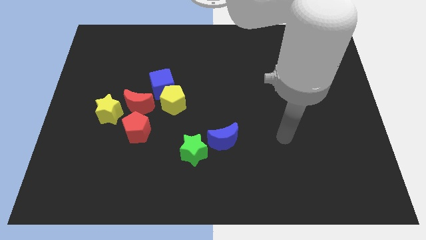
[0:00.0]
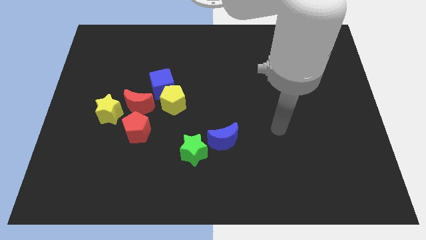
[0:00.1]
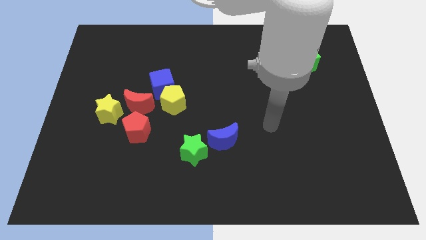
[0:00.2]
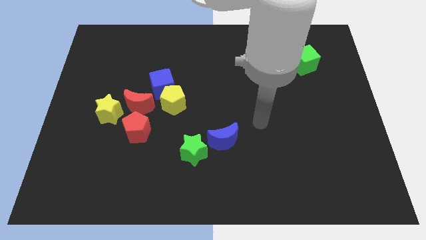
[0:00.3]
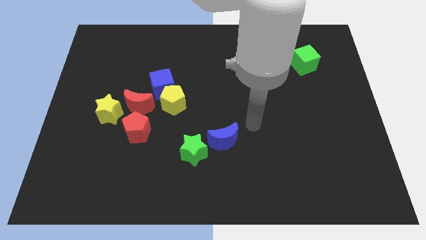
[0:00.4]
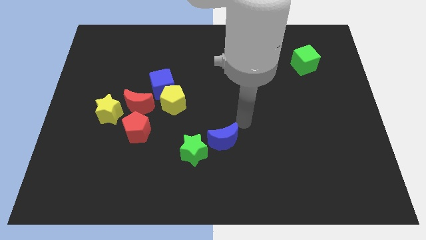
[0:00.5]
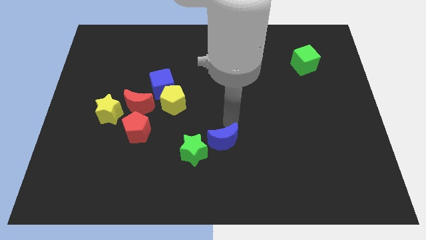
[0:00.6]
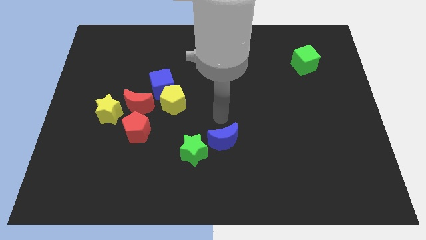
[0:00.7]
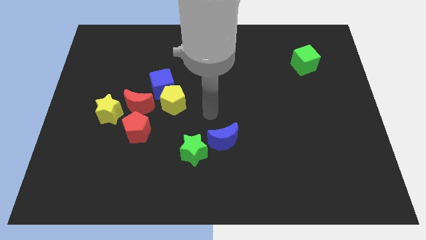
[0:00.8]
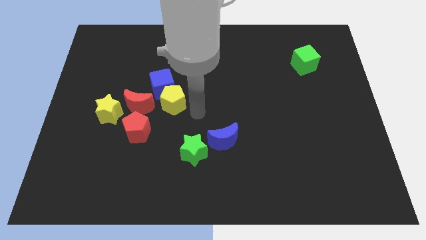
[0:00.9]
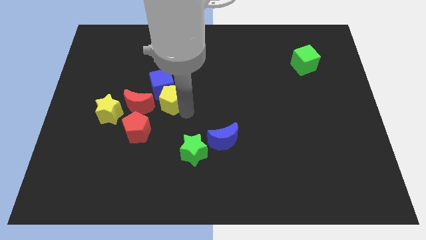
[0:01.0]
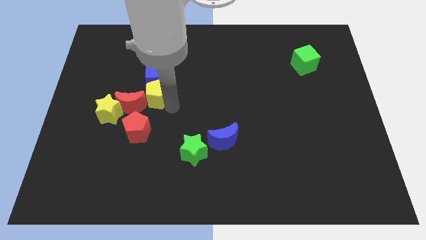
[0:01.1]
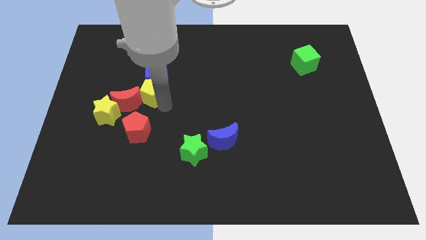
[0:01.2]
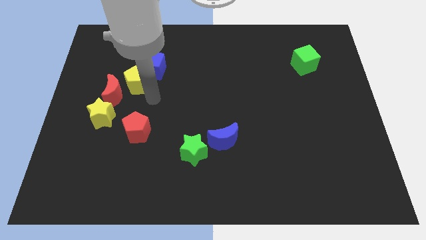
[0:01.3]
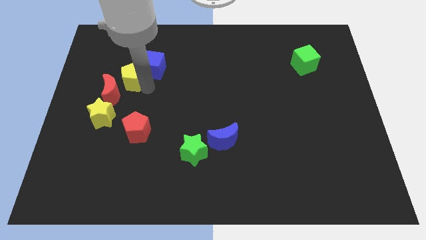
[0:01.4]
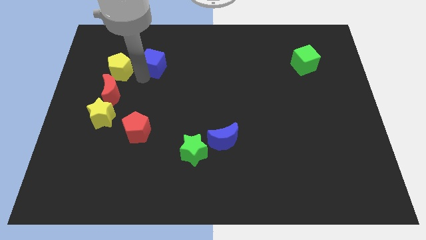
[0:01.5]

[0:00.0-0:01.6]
separate the blue cube from the yellow pentagon and red moon

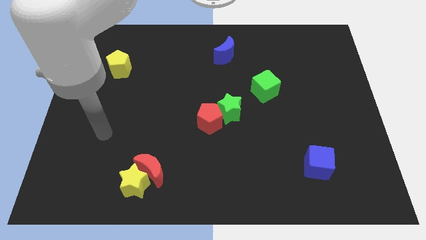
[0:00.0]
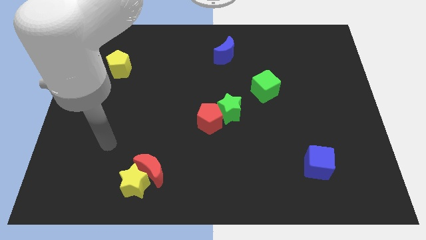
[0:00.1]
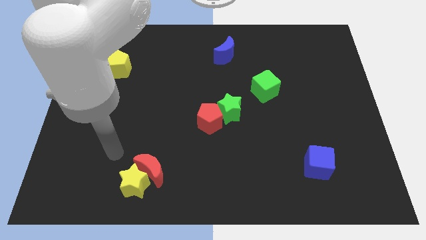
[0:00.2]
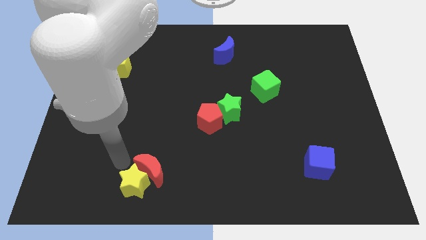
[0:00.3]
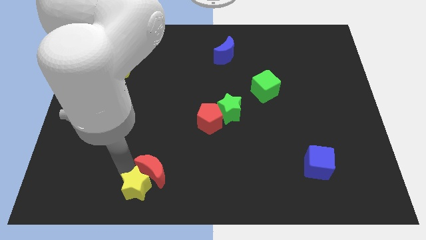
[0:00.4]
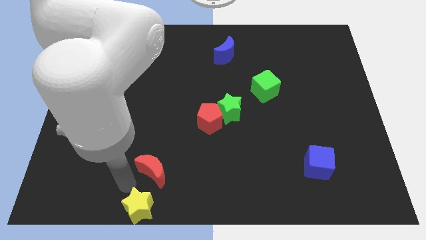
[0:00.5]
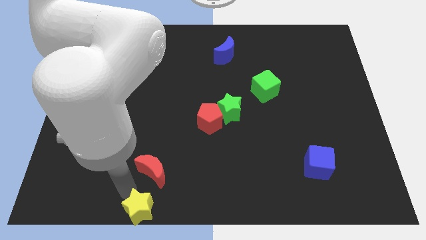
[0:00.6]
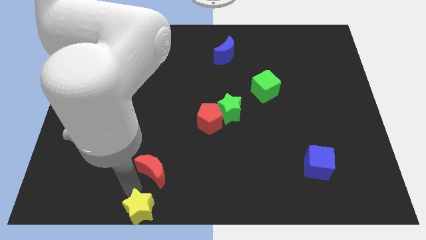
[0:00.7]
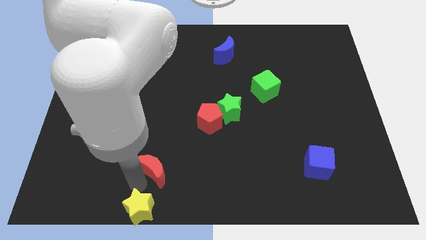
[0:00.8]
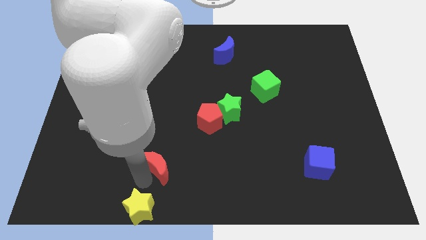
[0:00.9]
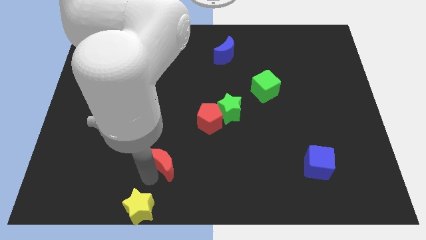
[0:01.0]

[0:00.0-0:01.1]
pull the red moon apart from the yellow star

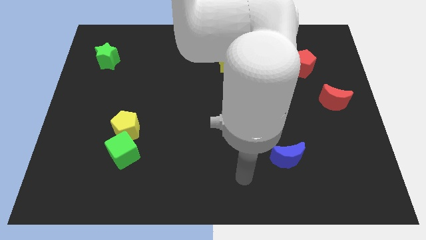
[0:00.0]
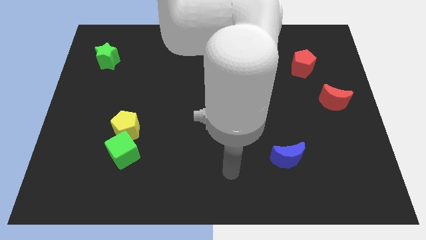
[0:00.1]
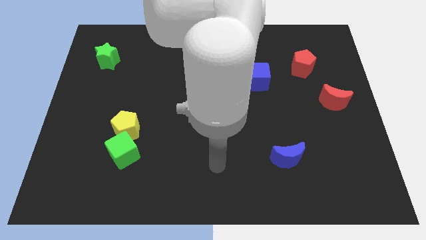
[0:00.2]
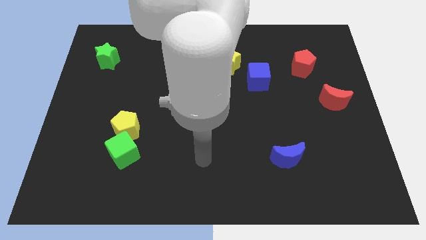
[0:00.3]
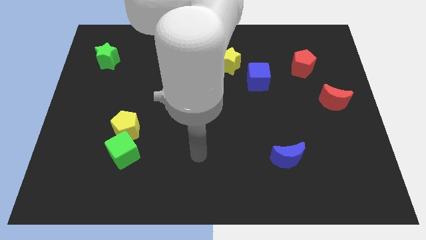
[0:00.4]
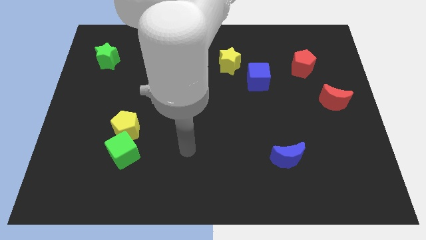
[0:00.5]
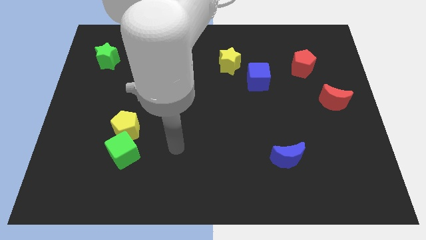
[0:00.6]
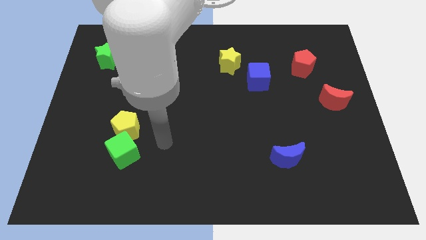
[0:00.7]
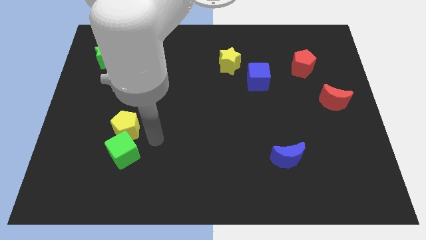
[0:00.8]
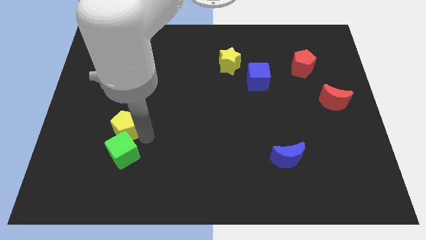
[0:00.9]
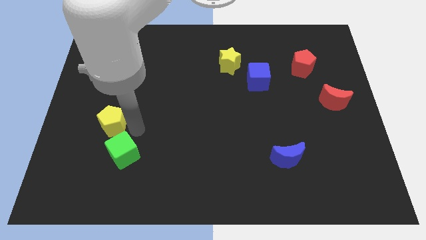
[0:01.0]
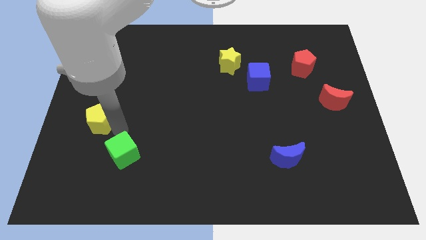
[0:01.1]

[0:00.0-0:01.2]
pull the green cube apart from the yellow pentagon

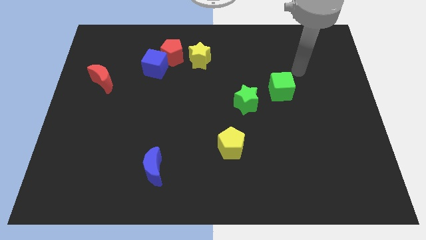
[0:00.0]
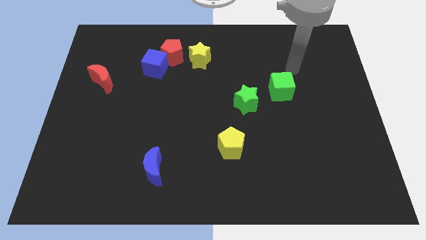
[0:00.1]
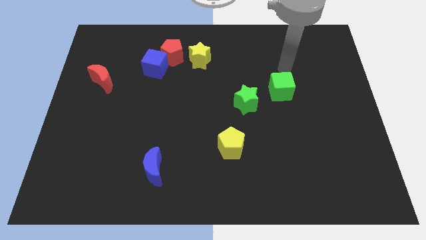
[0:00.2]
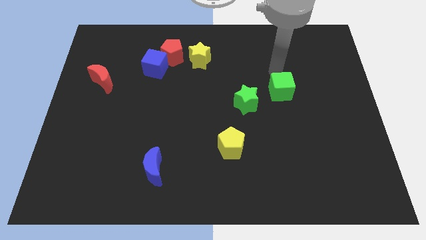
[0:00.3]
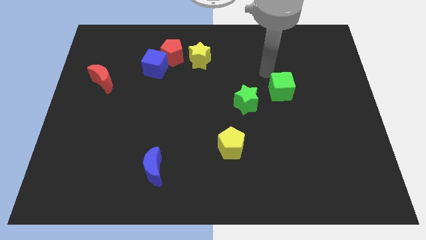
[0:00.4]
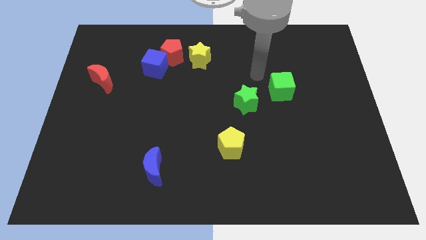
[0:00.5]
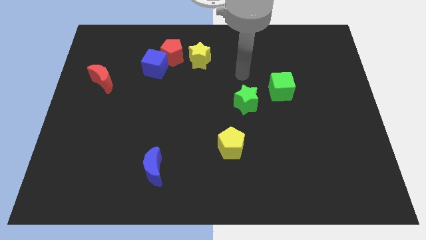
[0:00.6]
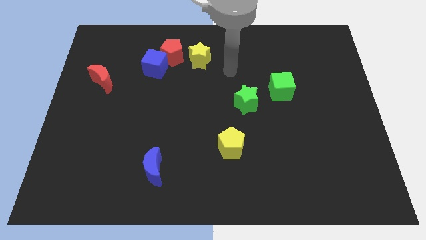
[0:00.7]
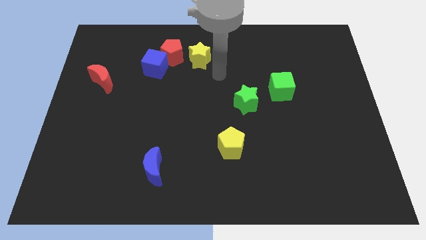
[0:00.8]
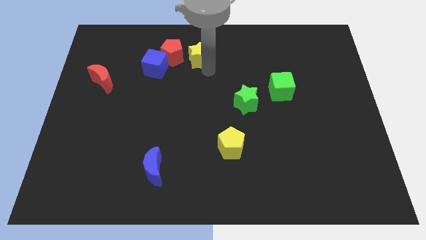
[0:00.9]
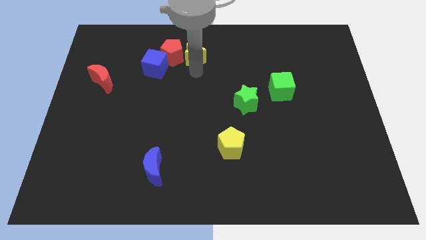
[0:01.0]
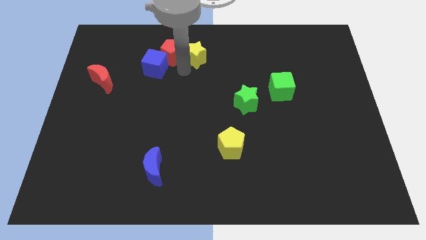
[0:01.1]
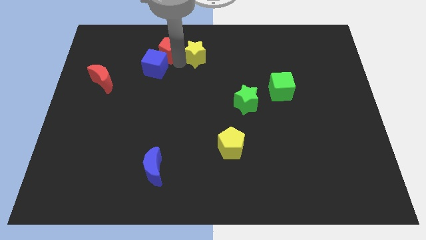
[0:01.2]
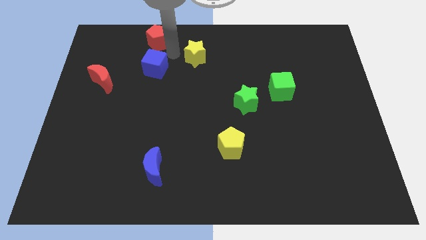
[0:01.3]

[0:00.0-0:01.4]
pull the blue cube apart from the red pentagon

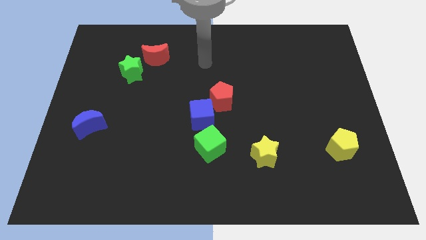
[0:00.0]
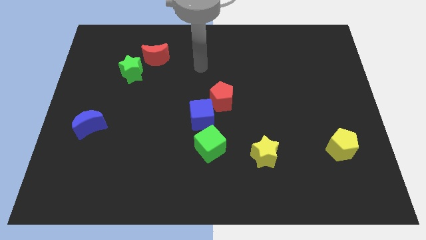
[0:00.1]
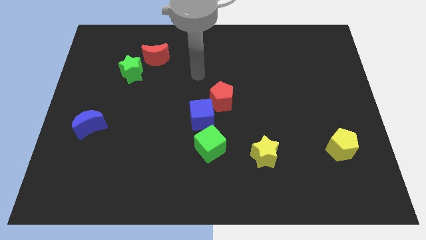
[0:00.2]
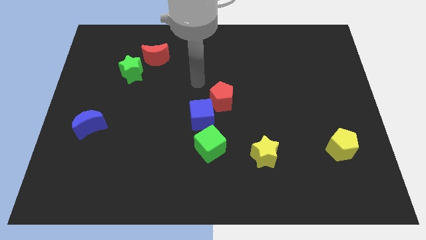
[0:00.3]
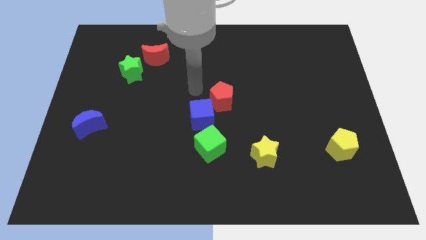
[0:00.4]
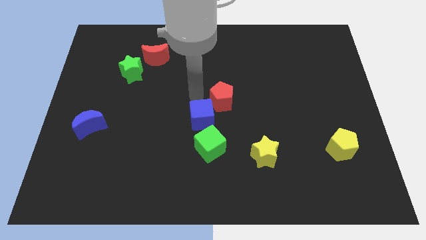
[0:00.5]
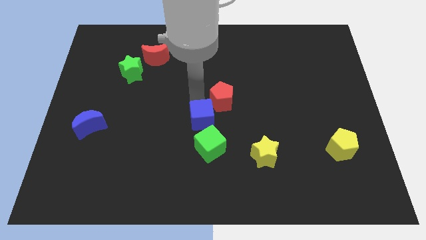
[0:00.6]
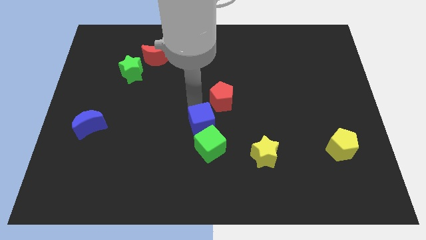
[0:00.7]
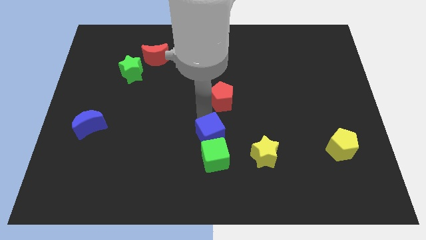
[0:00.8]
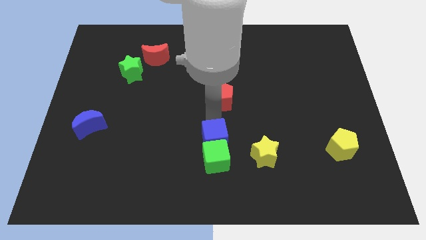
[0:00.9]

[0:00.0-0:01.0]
move the red pentagon away from the blue cube

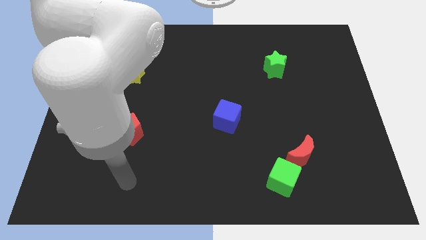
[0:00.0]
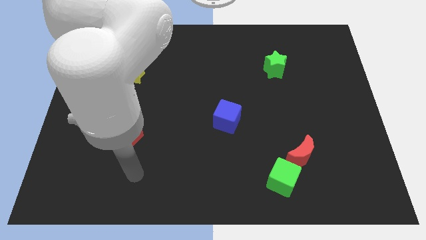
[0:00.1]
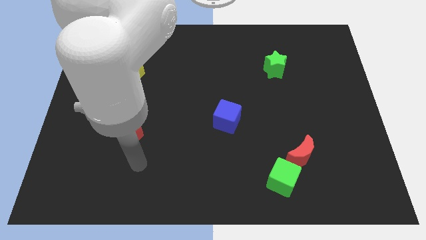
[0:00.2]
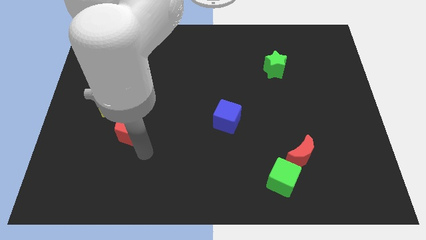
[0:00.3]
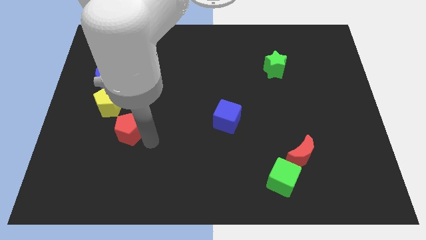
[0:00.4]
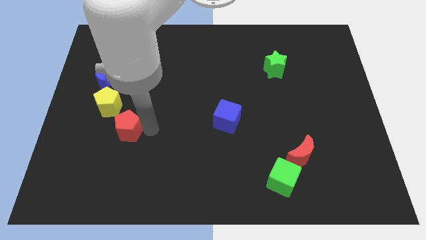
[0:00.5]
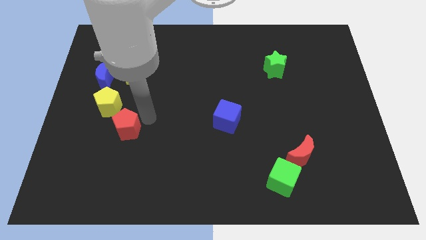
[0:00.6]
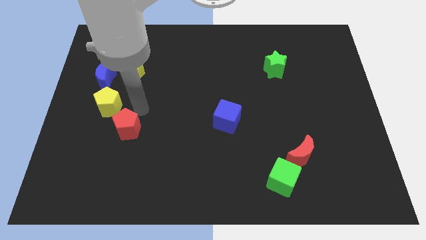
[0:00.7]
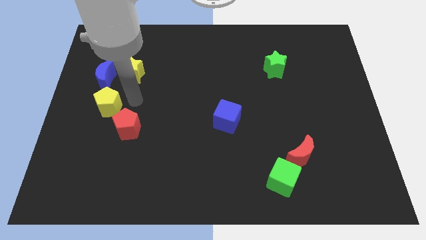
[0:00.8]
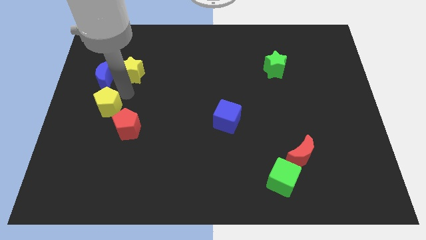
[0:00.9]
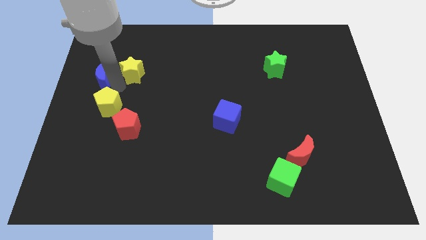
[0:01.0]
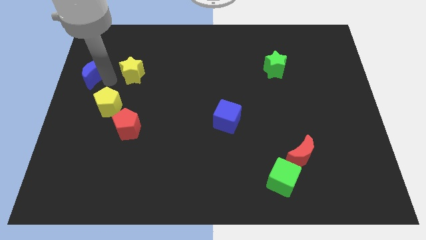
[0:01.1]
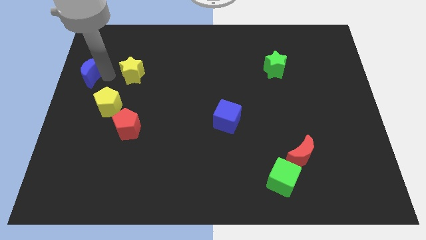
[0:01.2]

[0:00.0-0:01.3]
separate the yellow star from the blue moon

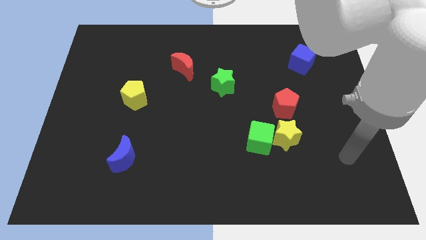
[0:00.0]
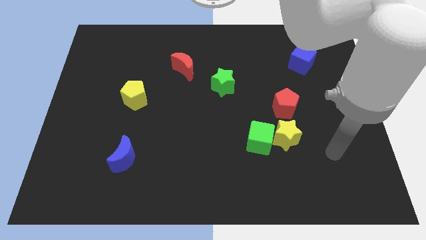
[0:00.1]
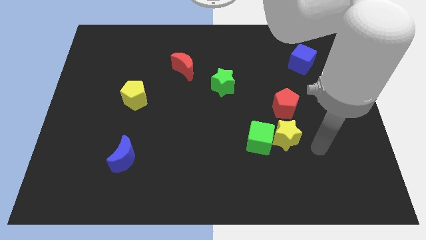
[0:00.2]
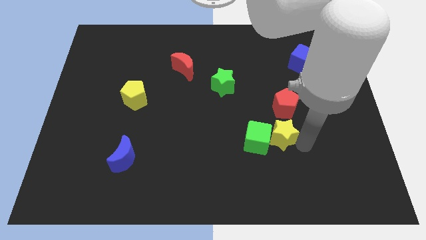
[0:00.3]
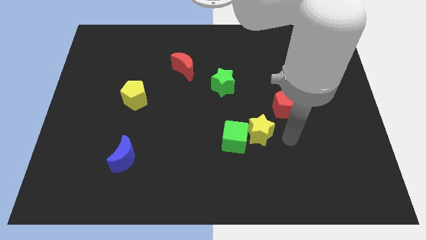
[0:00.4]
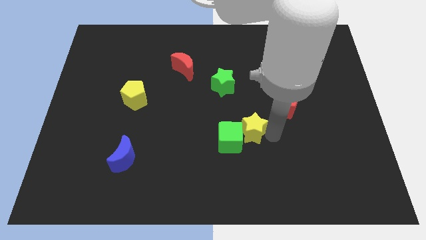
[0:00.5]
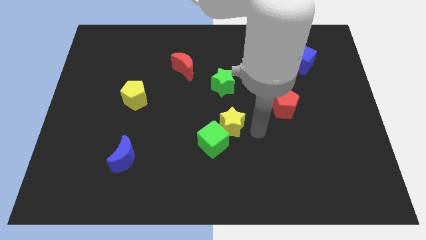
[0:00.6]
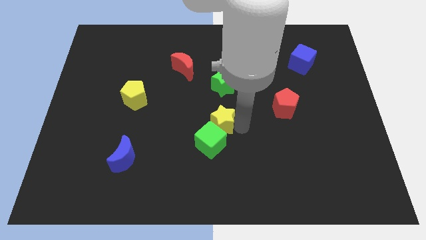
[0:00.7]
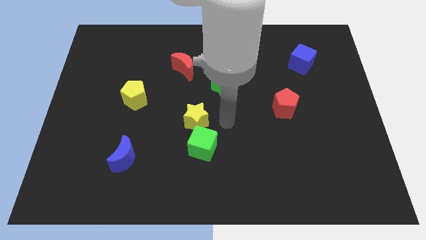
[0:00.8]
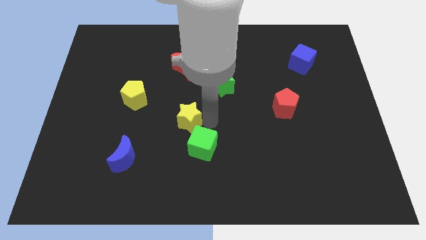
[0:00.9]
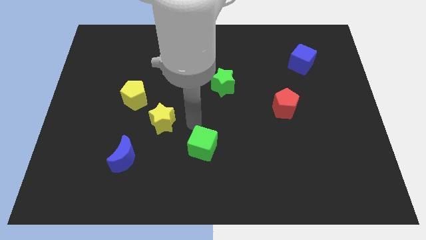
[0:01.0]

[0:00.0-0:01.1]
separate the green cube from the yellow star

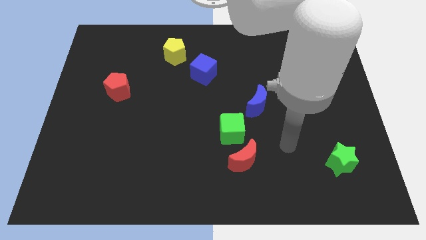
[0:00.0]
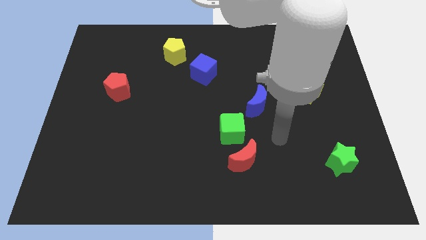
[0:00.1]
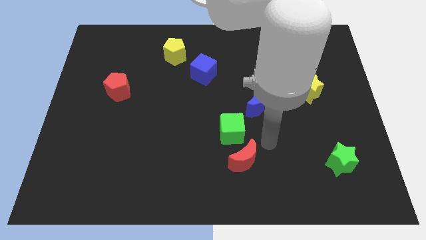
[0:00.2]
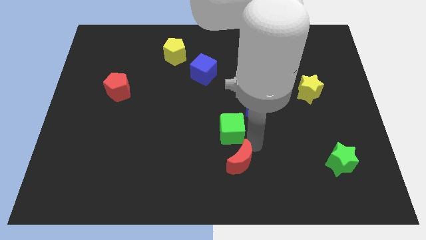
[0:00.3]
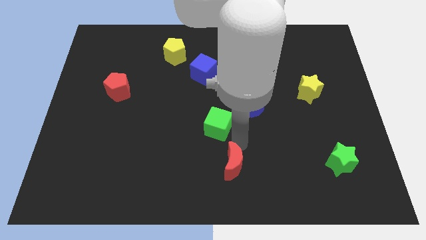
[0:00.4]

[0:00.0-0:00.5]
pull the red moon apart from the green cube
